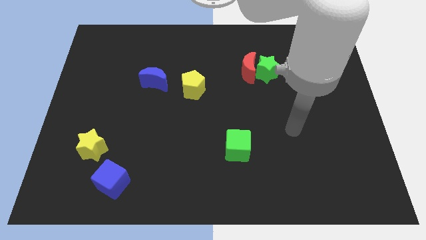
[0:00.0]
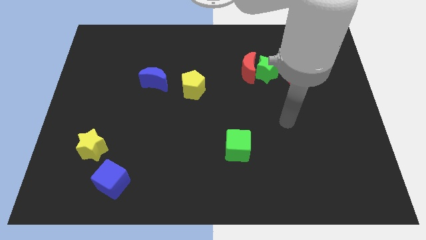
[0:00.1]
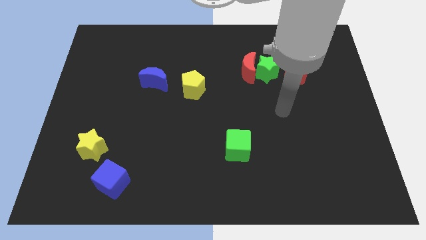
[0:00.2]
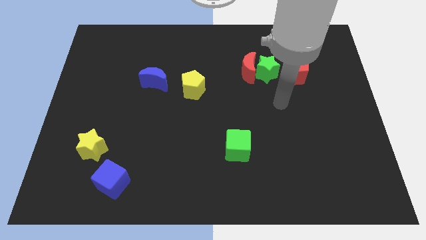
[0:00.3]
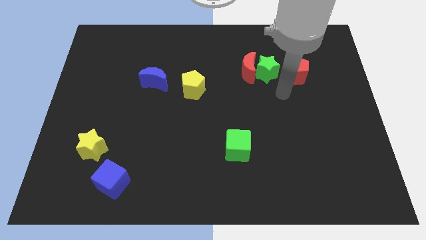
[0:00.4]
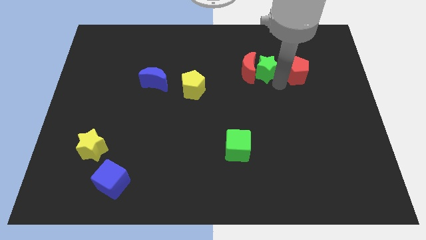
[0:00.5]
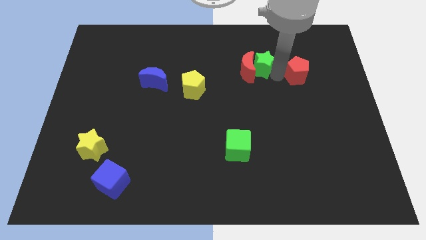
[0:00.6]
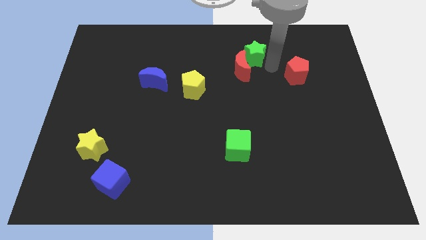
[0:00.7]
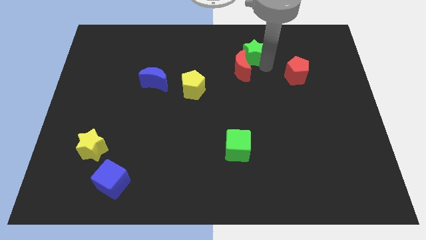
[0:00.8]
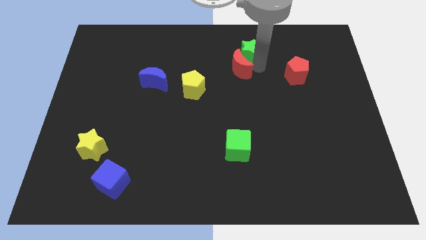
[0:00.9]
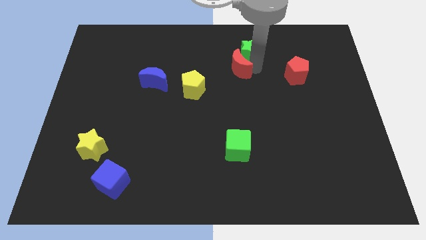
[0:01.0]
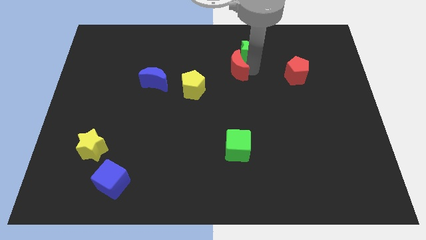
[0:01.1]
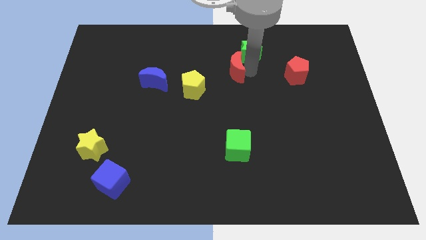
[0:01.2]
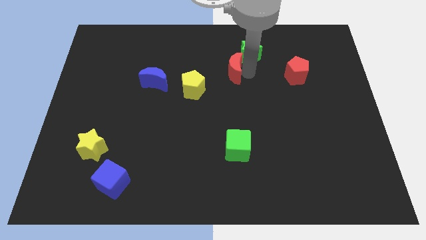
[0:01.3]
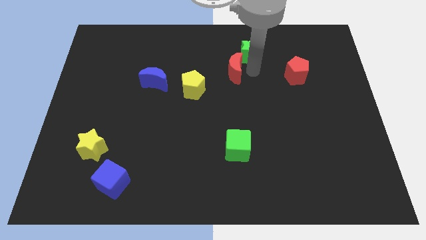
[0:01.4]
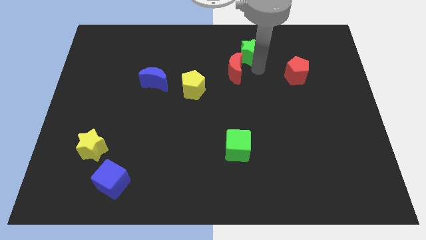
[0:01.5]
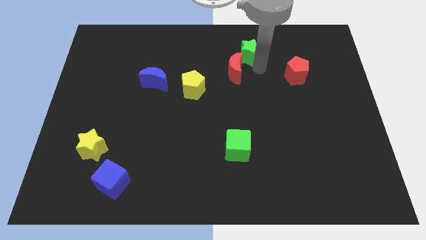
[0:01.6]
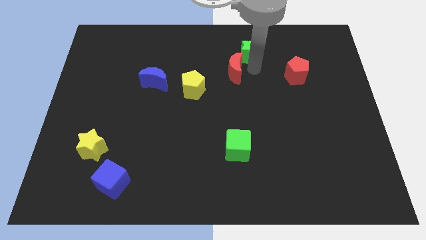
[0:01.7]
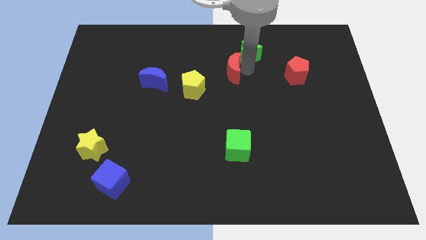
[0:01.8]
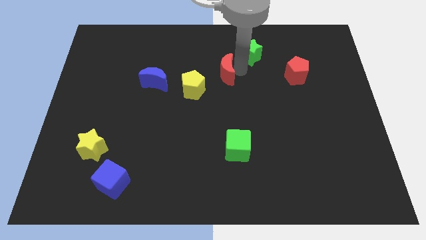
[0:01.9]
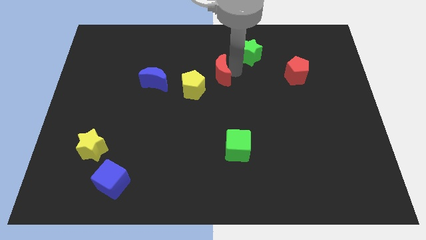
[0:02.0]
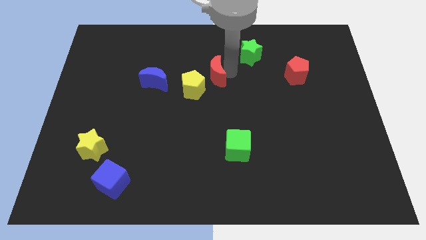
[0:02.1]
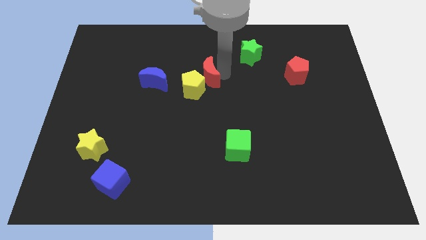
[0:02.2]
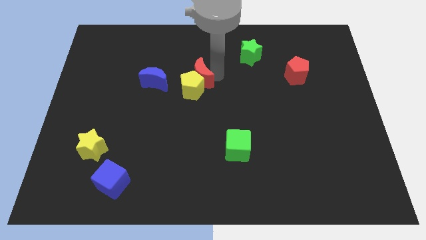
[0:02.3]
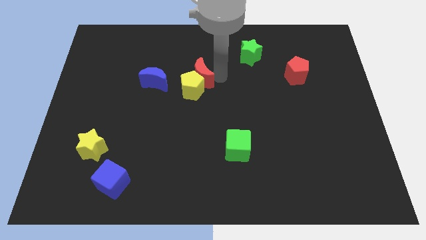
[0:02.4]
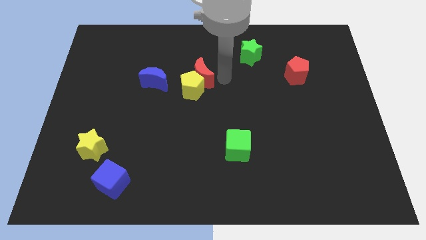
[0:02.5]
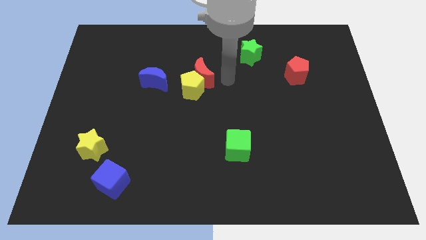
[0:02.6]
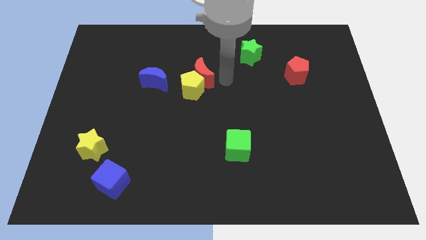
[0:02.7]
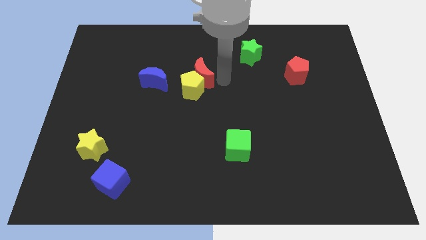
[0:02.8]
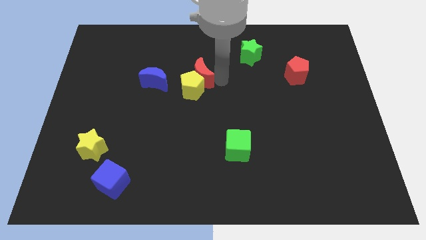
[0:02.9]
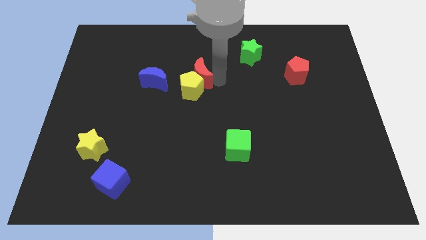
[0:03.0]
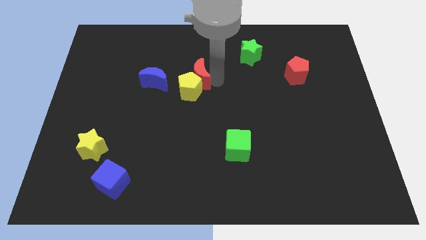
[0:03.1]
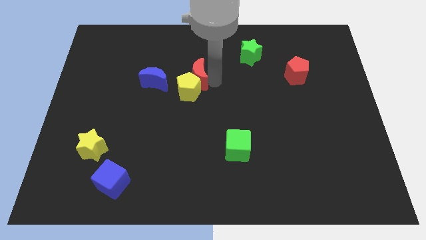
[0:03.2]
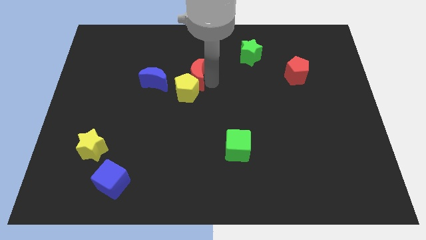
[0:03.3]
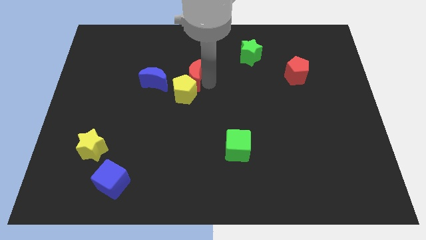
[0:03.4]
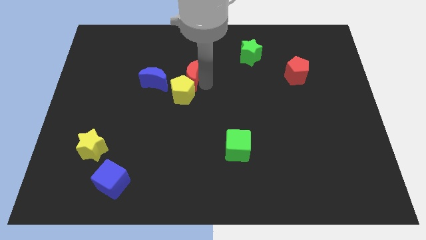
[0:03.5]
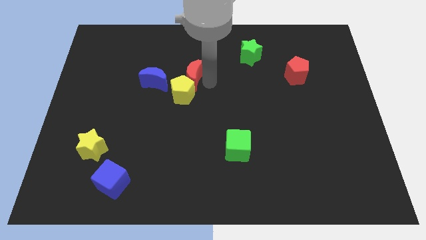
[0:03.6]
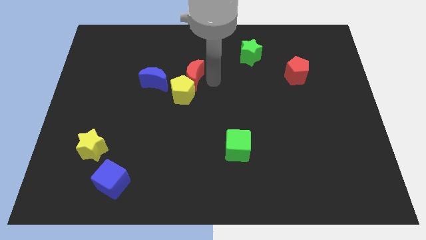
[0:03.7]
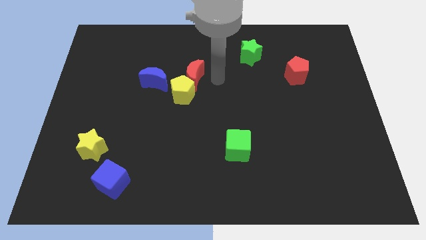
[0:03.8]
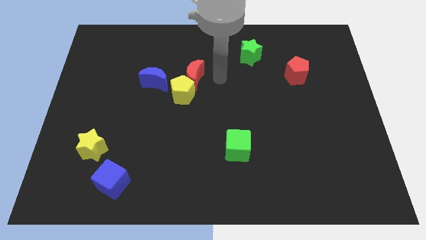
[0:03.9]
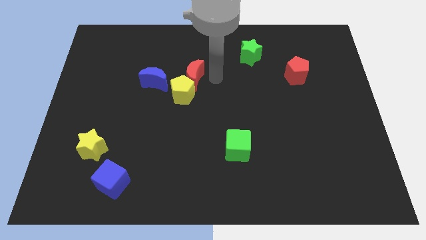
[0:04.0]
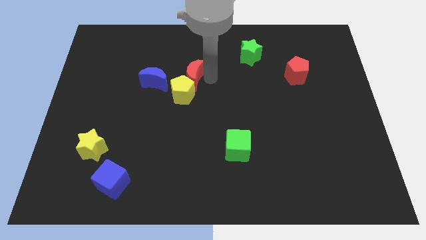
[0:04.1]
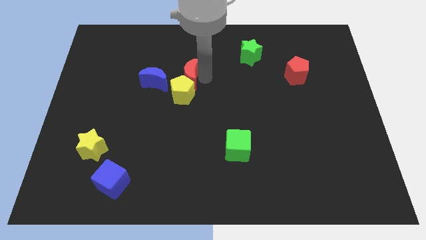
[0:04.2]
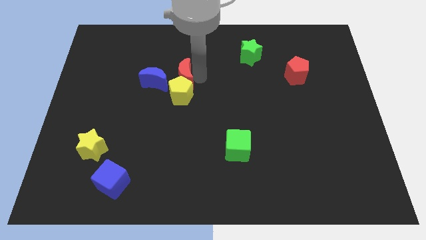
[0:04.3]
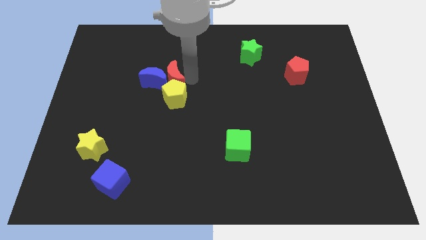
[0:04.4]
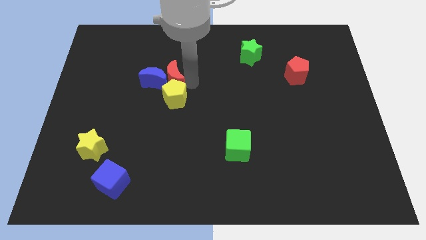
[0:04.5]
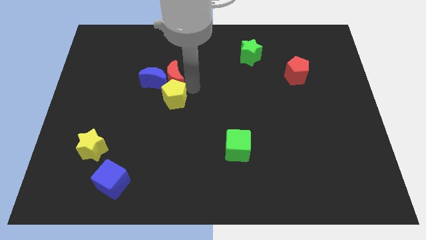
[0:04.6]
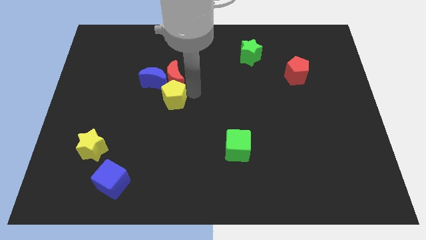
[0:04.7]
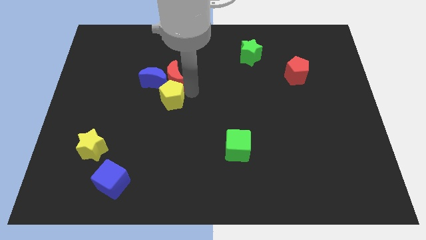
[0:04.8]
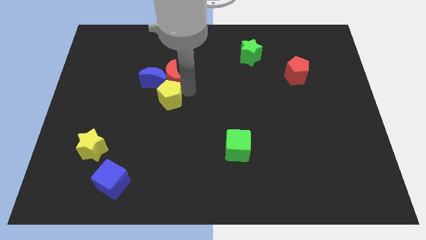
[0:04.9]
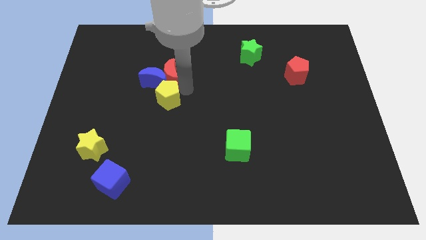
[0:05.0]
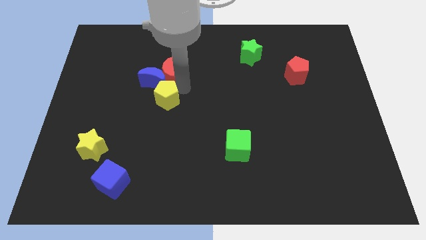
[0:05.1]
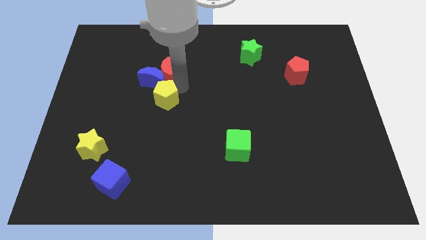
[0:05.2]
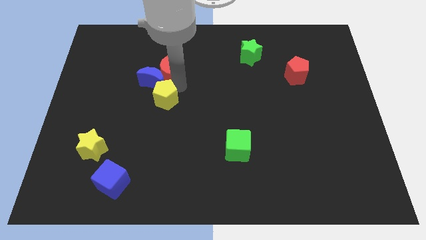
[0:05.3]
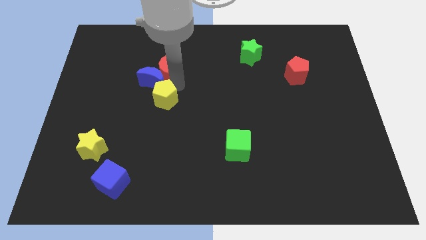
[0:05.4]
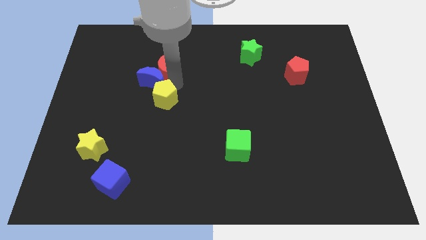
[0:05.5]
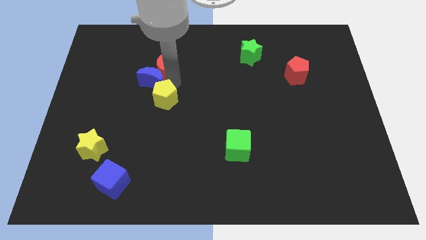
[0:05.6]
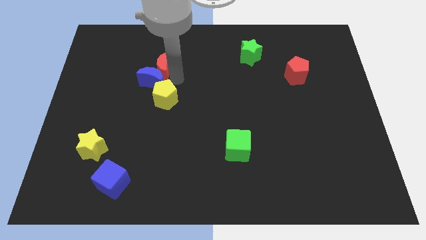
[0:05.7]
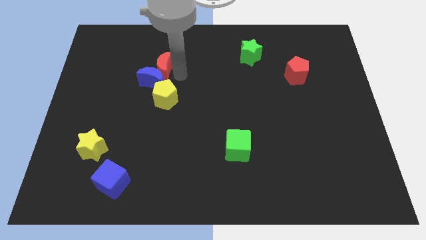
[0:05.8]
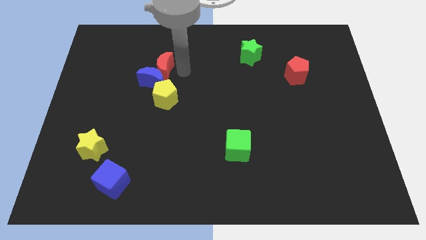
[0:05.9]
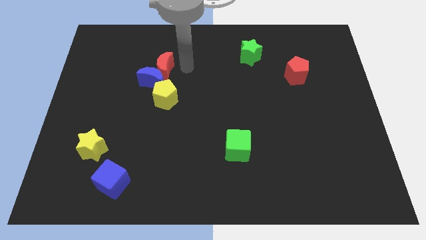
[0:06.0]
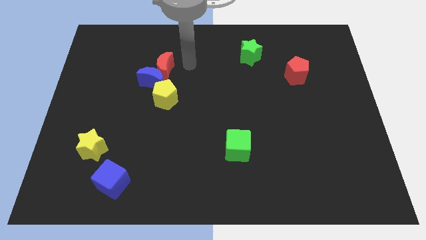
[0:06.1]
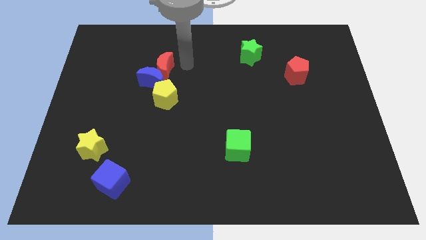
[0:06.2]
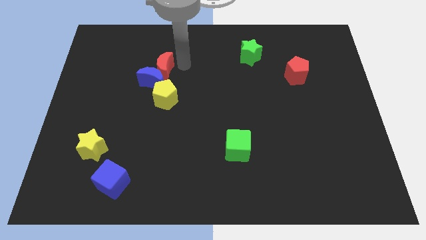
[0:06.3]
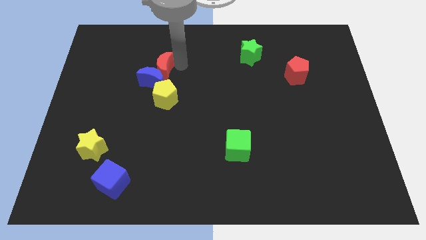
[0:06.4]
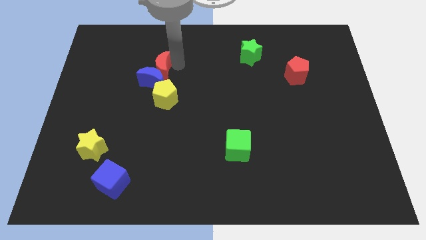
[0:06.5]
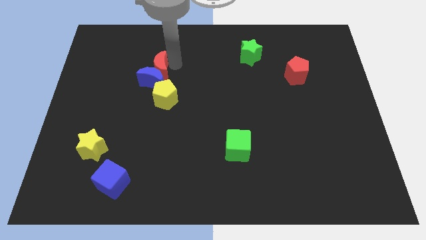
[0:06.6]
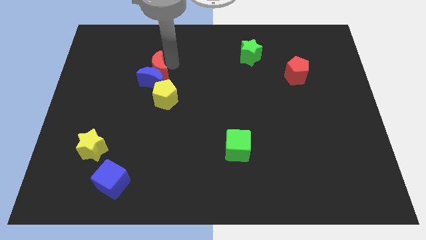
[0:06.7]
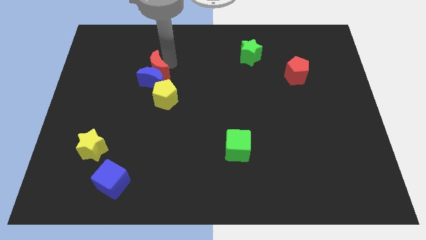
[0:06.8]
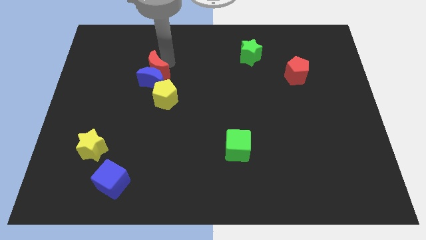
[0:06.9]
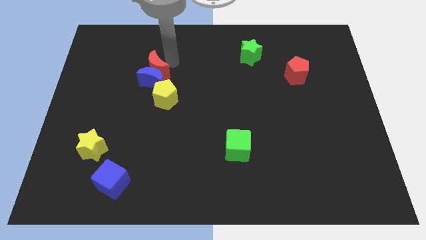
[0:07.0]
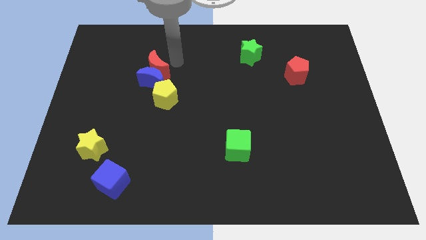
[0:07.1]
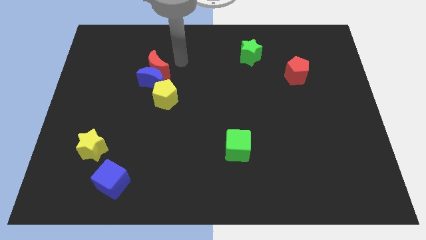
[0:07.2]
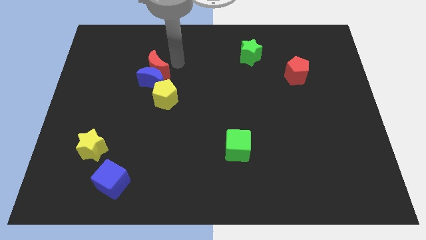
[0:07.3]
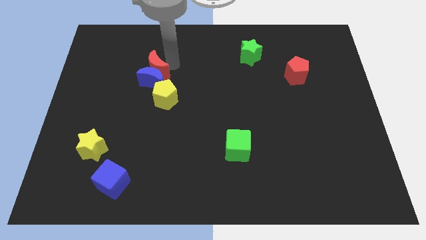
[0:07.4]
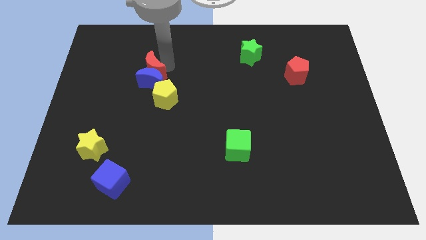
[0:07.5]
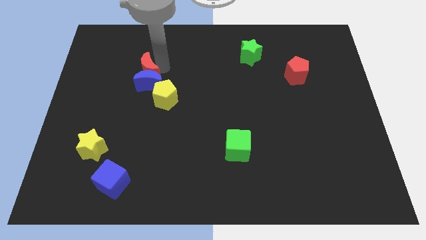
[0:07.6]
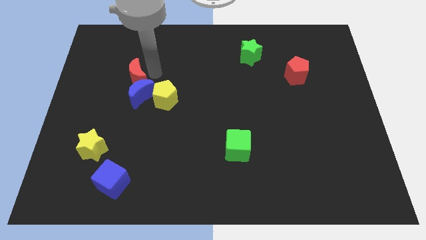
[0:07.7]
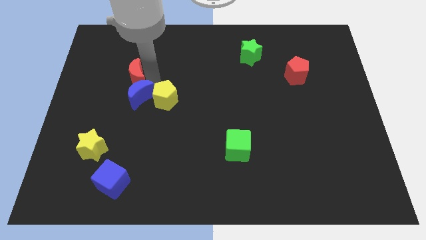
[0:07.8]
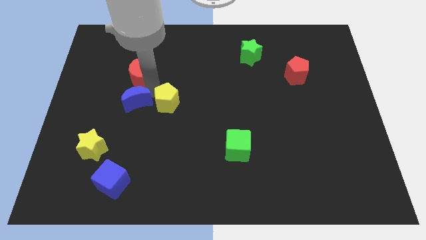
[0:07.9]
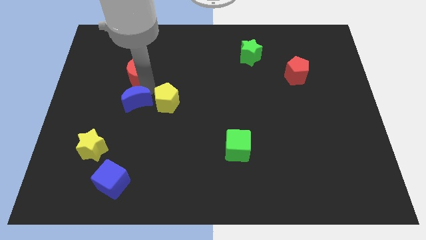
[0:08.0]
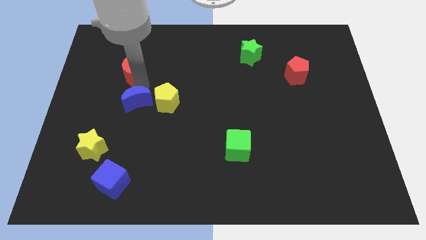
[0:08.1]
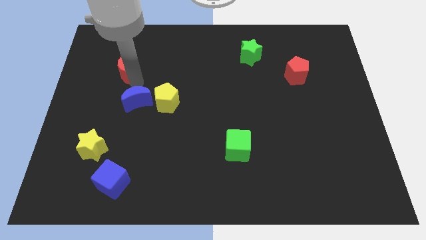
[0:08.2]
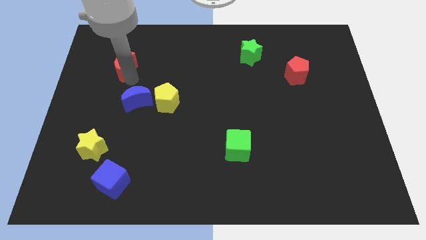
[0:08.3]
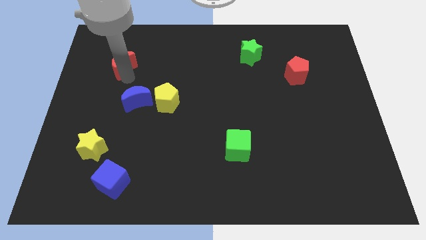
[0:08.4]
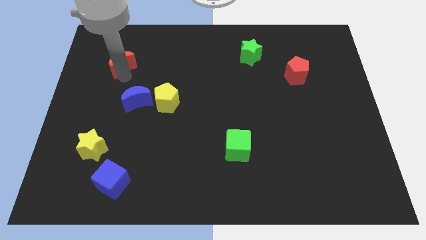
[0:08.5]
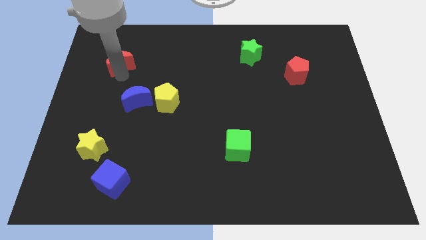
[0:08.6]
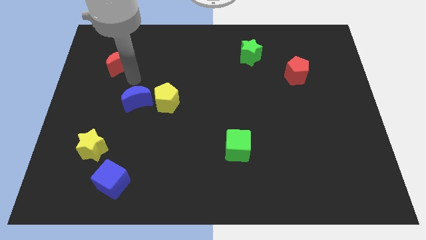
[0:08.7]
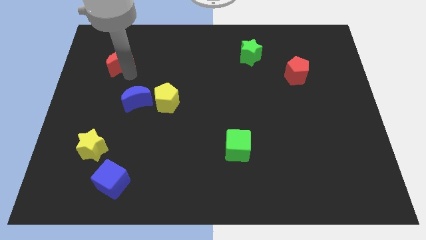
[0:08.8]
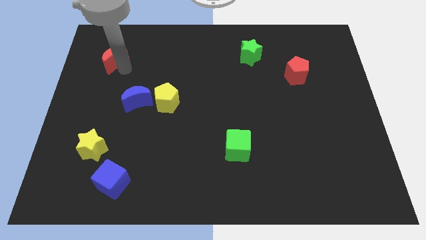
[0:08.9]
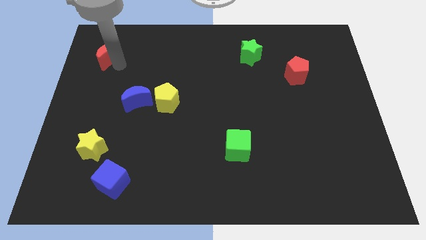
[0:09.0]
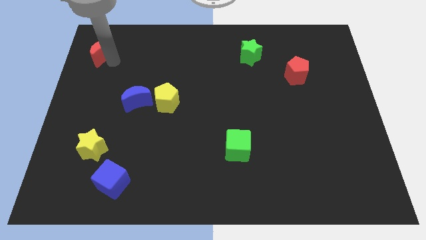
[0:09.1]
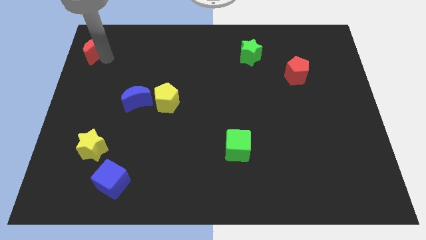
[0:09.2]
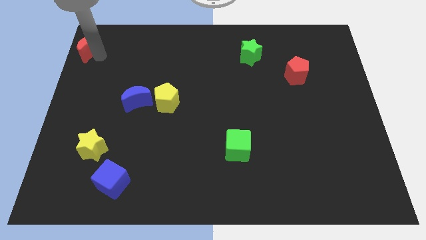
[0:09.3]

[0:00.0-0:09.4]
move the red moon to the top left
